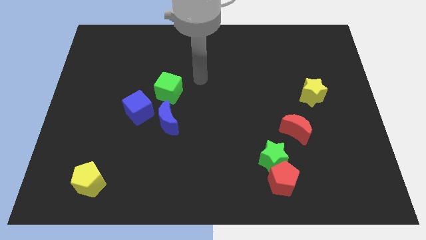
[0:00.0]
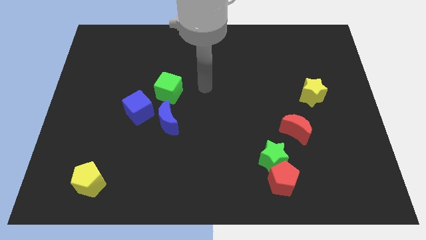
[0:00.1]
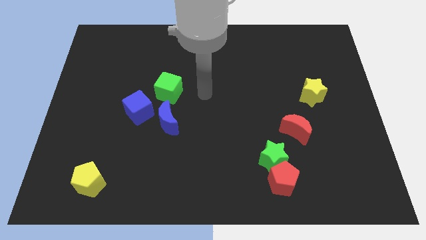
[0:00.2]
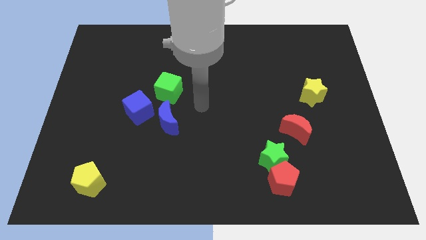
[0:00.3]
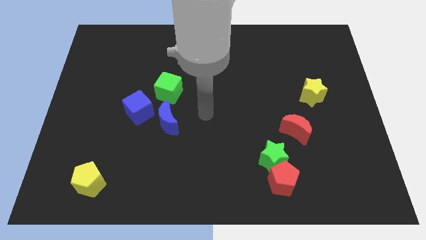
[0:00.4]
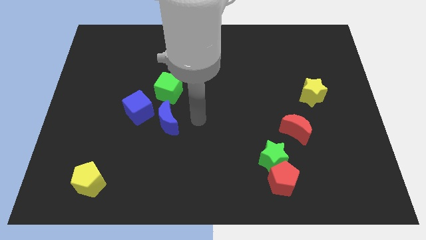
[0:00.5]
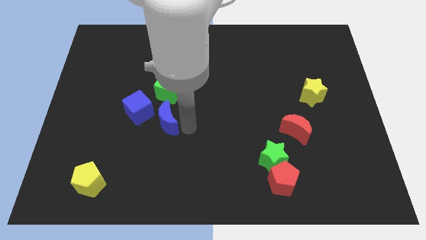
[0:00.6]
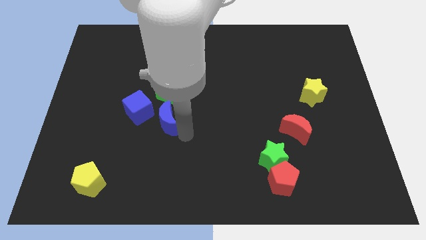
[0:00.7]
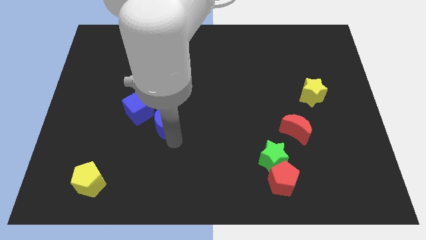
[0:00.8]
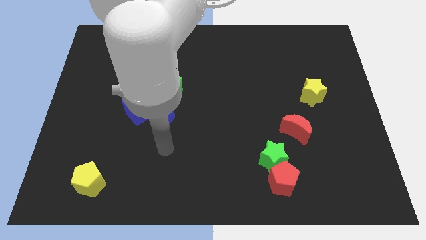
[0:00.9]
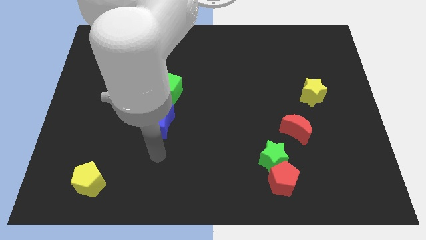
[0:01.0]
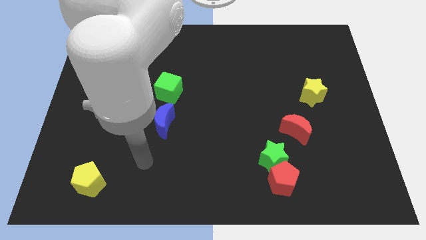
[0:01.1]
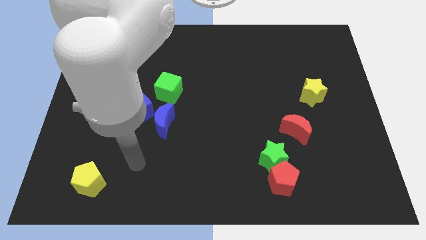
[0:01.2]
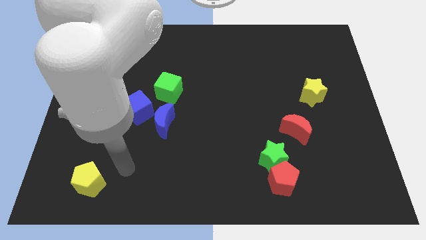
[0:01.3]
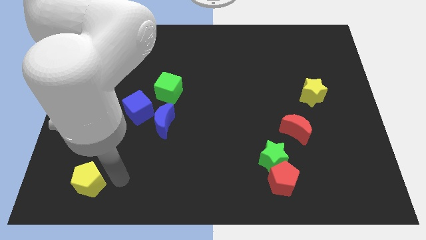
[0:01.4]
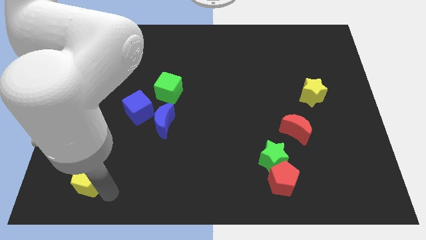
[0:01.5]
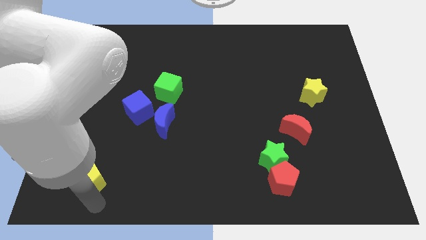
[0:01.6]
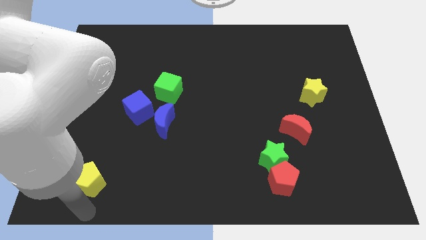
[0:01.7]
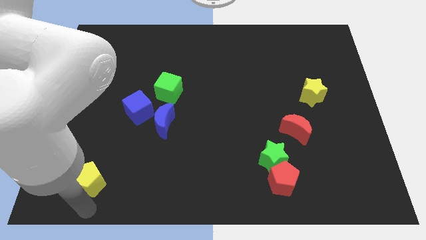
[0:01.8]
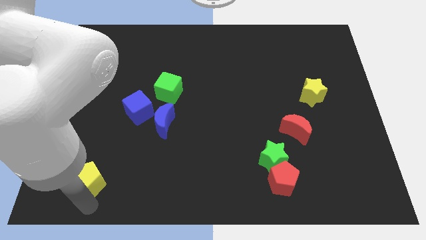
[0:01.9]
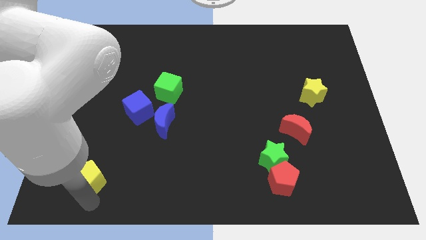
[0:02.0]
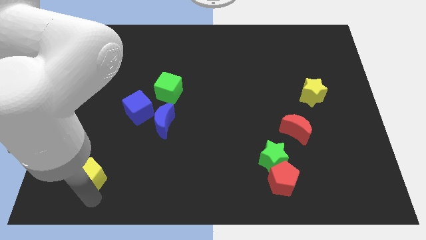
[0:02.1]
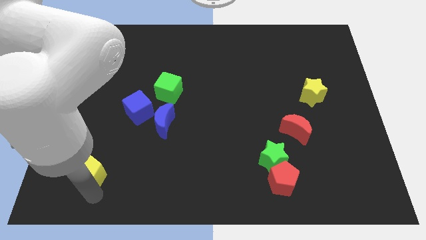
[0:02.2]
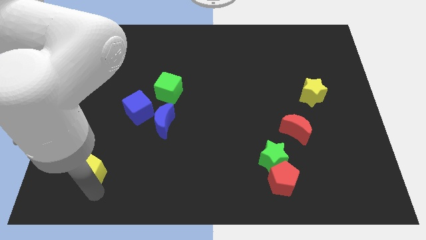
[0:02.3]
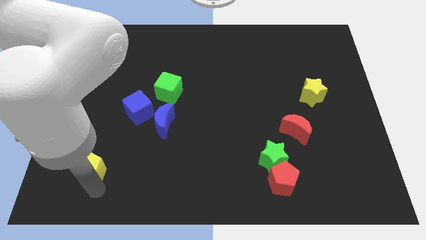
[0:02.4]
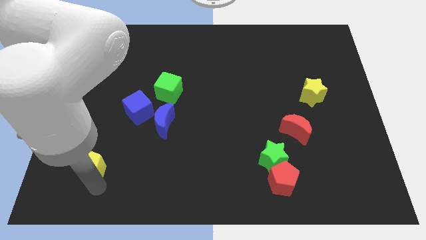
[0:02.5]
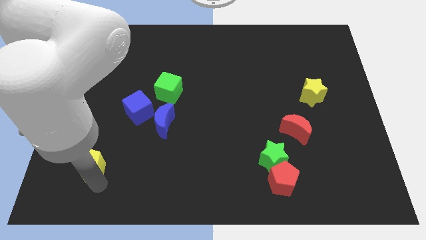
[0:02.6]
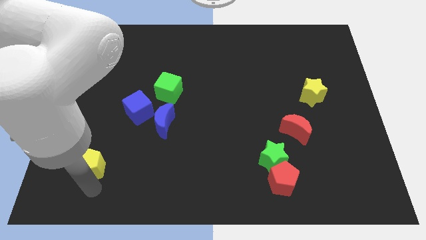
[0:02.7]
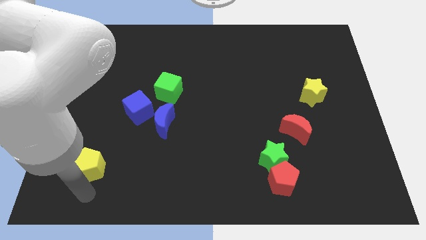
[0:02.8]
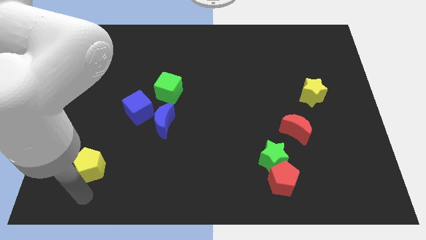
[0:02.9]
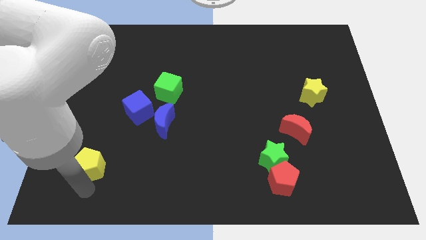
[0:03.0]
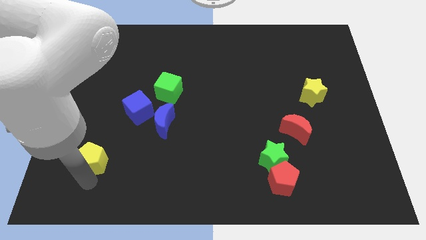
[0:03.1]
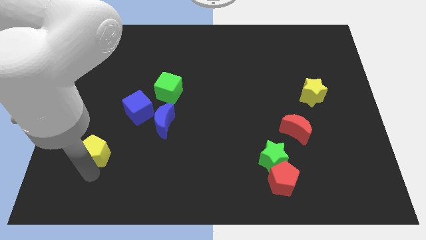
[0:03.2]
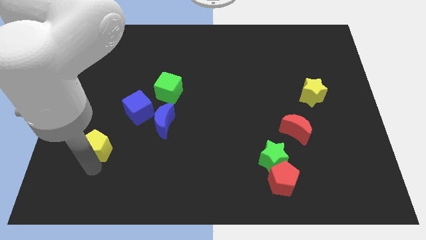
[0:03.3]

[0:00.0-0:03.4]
slightly move the yellow pentagon up

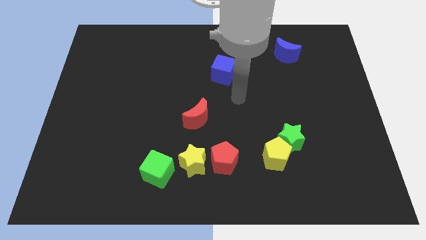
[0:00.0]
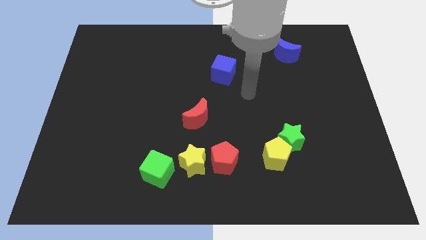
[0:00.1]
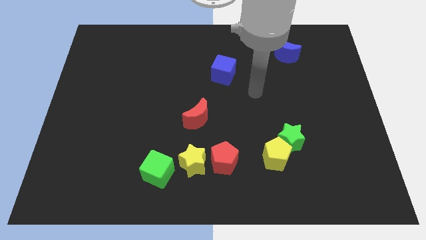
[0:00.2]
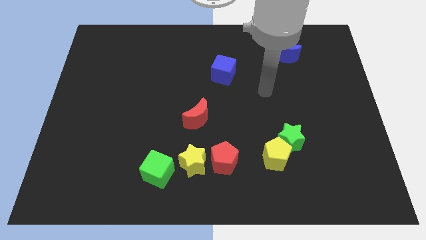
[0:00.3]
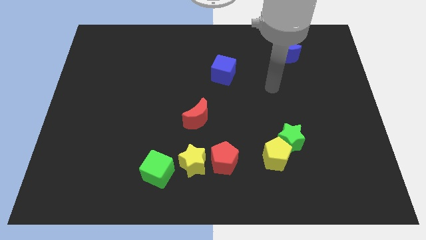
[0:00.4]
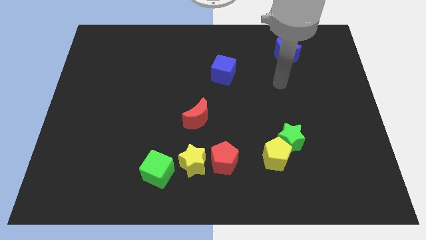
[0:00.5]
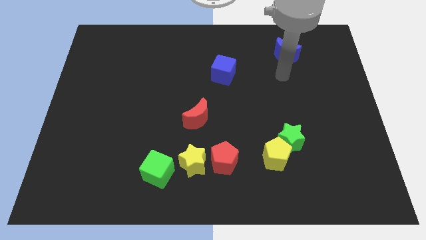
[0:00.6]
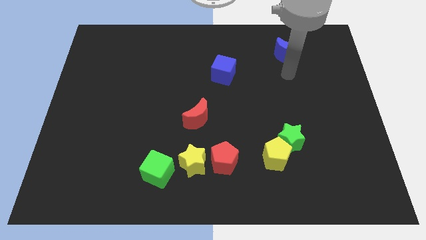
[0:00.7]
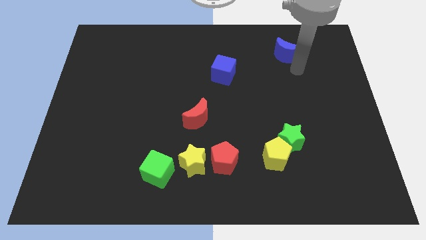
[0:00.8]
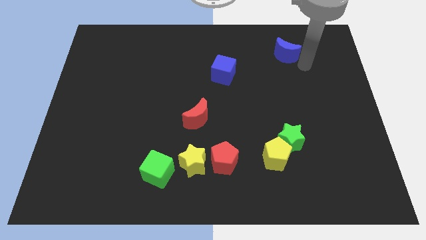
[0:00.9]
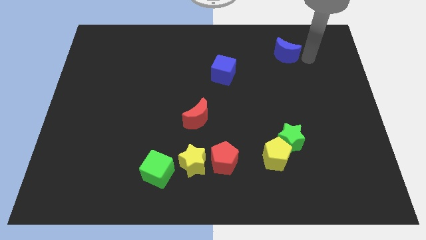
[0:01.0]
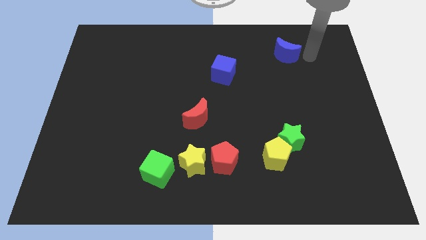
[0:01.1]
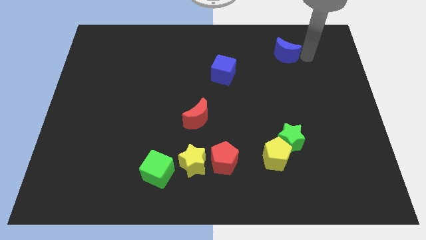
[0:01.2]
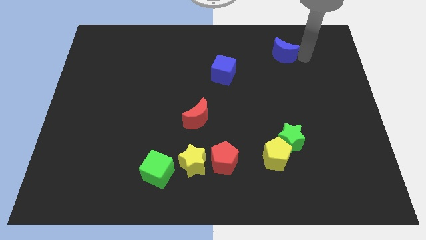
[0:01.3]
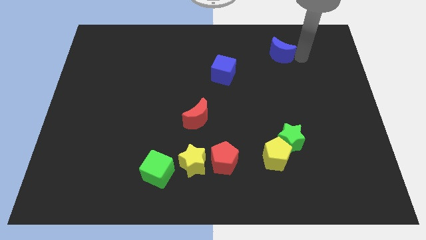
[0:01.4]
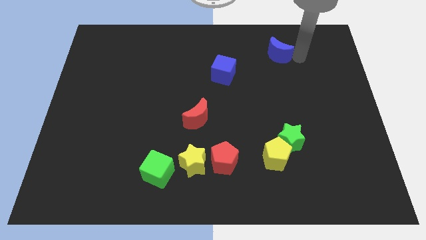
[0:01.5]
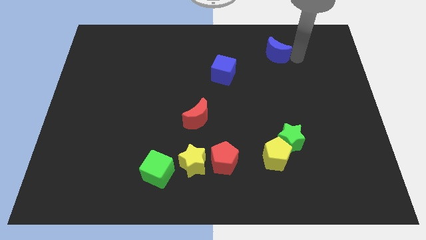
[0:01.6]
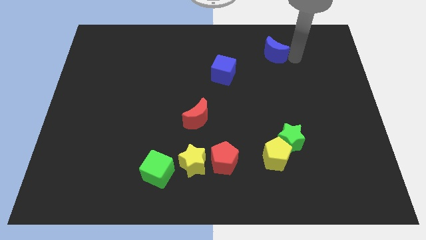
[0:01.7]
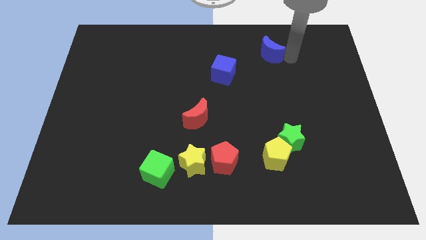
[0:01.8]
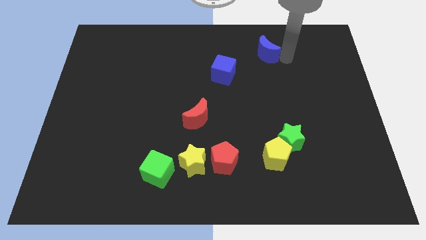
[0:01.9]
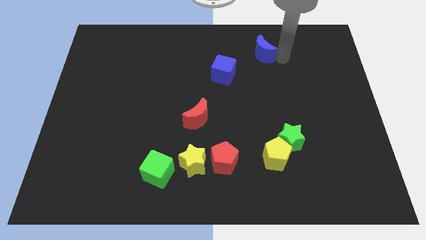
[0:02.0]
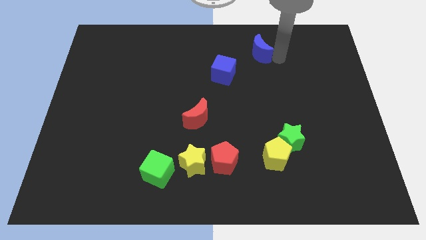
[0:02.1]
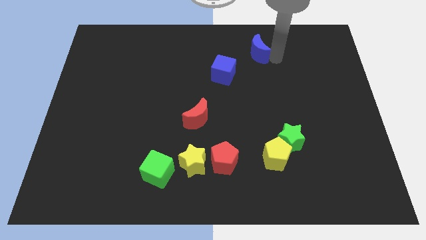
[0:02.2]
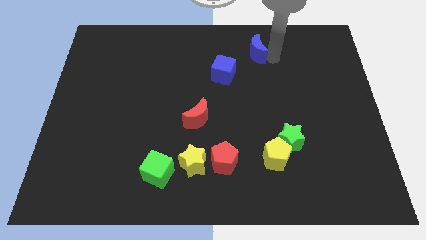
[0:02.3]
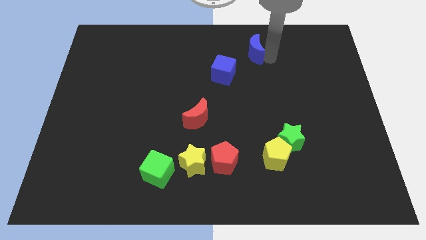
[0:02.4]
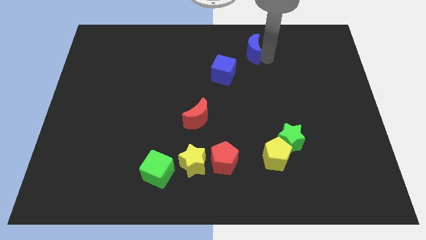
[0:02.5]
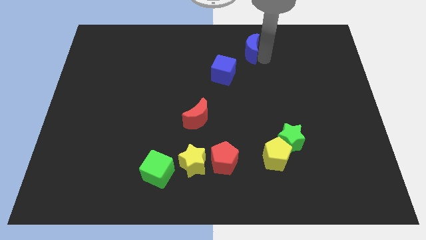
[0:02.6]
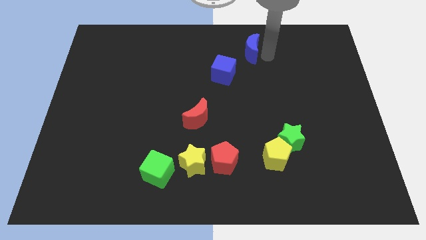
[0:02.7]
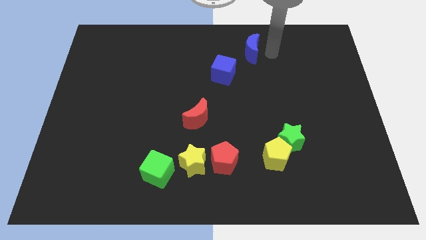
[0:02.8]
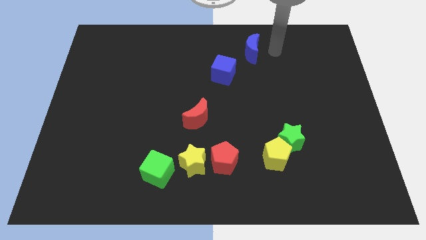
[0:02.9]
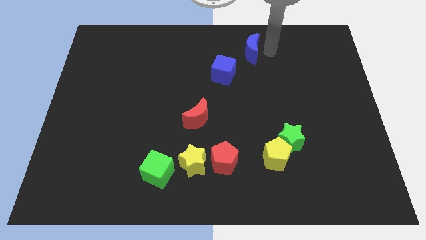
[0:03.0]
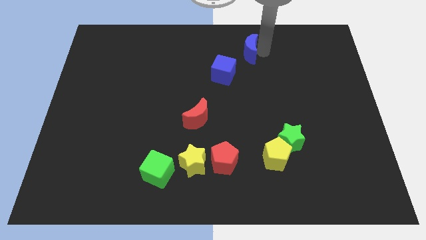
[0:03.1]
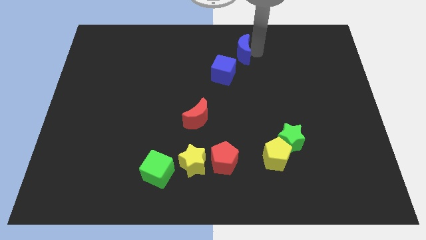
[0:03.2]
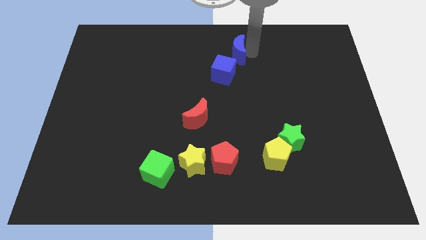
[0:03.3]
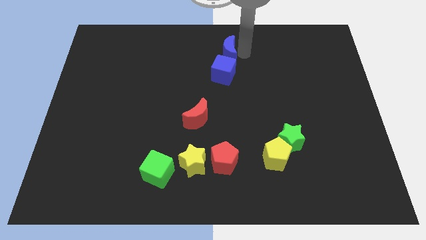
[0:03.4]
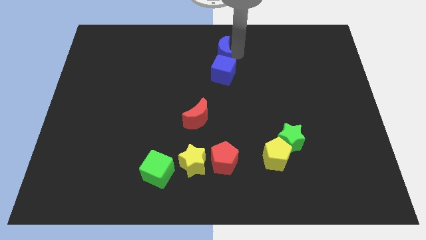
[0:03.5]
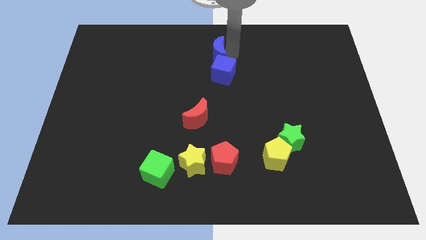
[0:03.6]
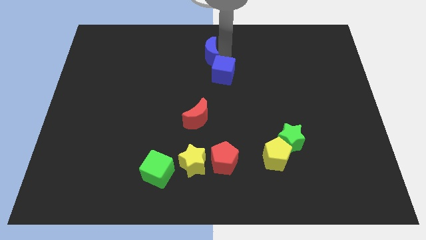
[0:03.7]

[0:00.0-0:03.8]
push the blue moon to the left

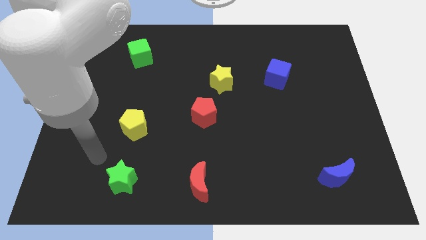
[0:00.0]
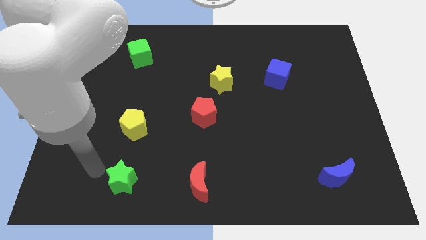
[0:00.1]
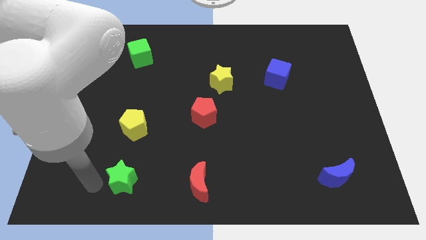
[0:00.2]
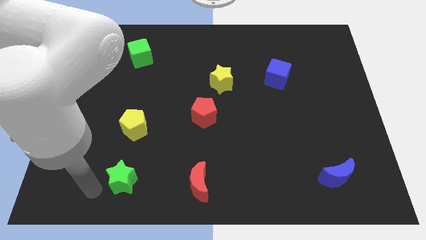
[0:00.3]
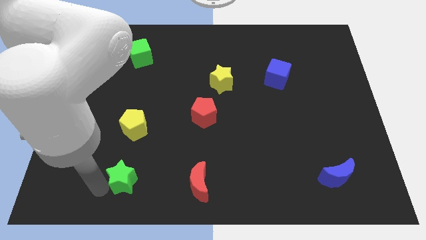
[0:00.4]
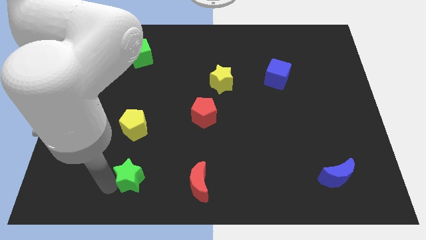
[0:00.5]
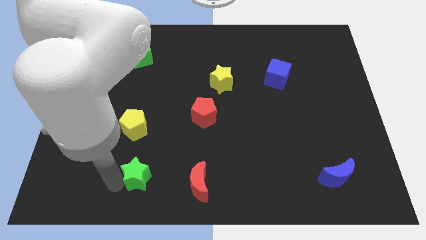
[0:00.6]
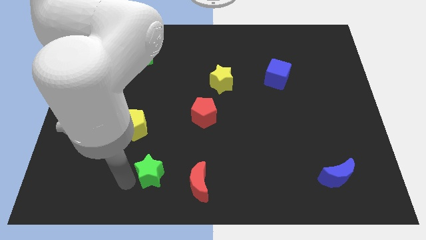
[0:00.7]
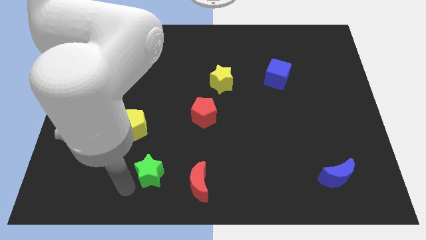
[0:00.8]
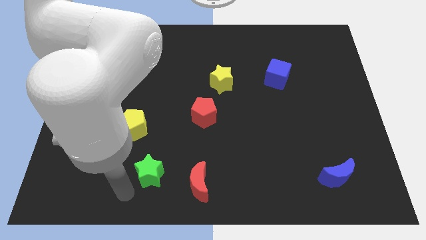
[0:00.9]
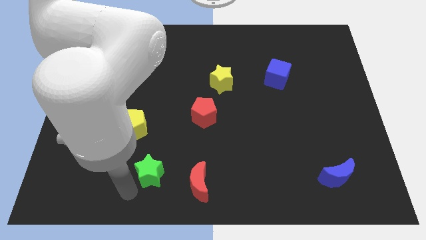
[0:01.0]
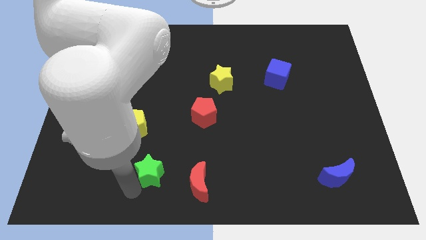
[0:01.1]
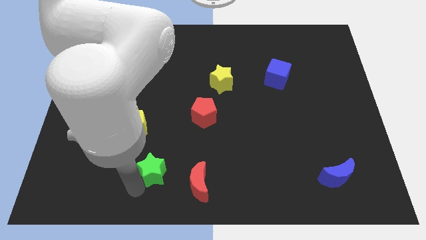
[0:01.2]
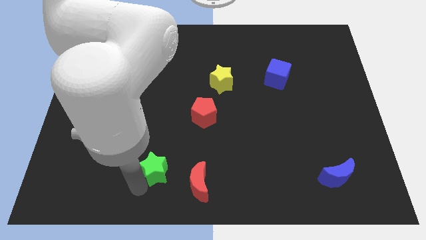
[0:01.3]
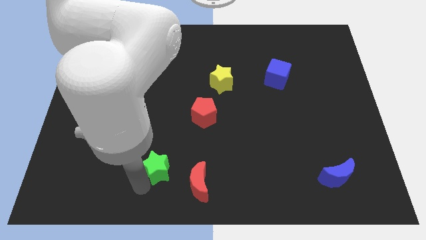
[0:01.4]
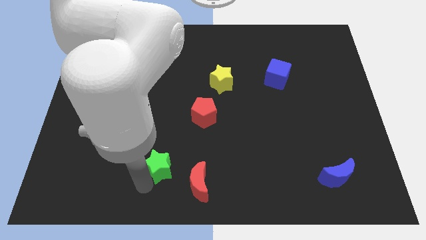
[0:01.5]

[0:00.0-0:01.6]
push the green star a little to the right
